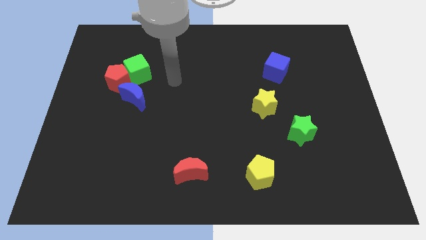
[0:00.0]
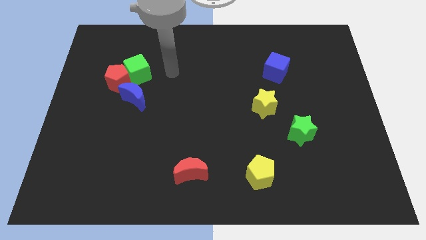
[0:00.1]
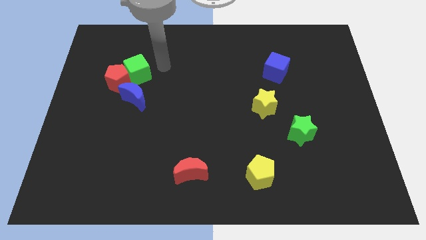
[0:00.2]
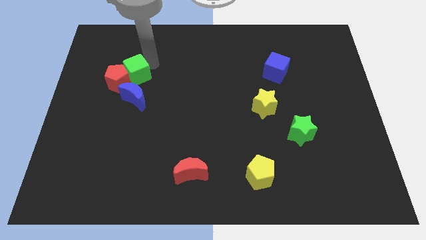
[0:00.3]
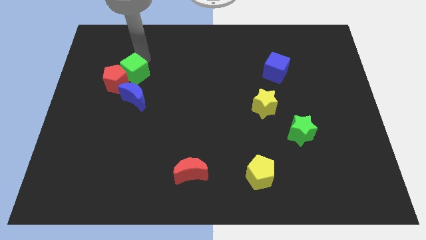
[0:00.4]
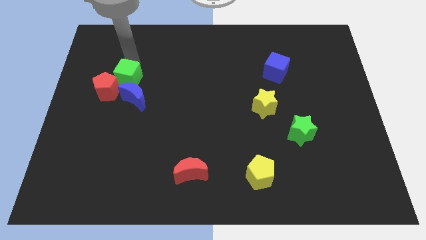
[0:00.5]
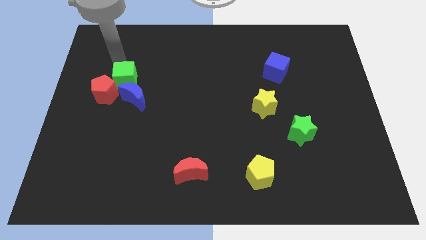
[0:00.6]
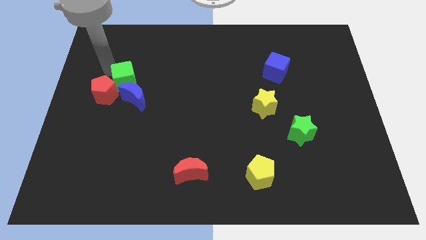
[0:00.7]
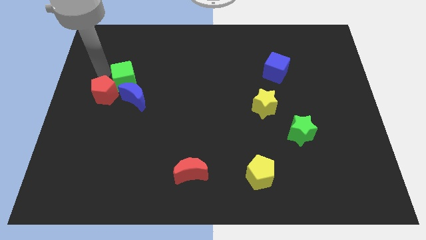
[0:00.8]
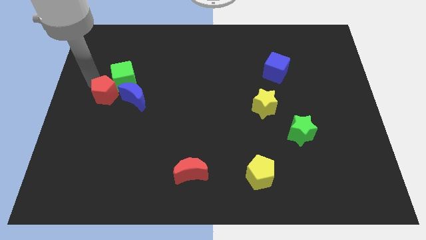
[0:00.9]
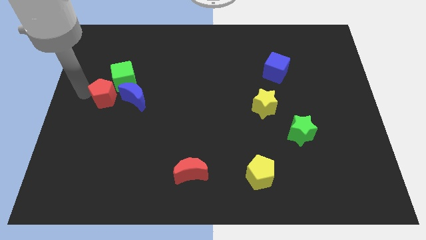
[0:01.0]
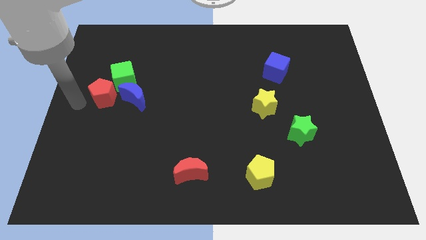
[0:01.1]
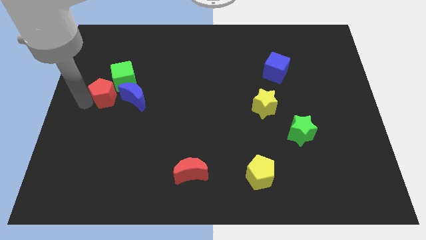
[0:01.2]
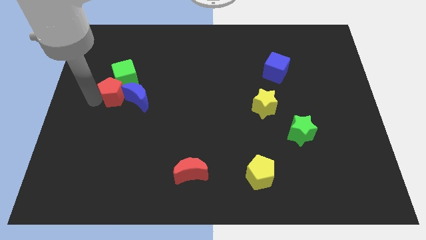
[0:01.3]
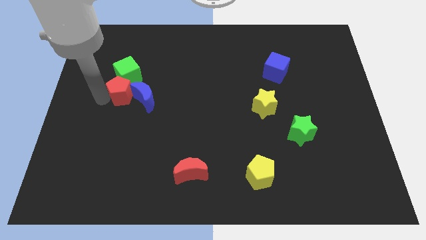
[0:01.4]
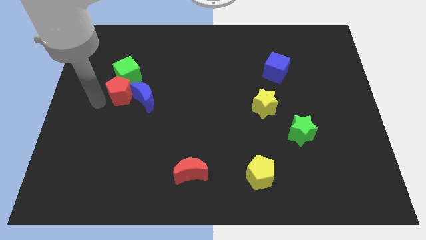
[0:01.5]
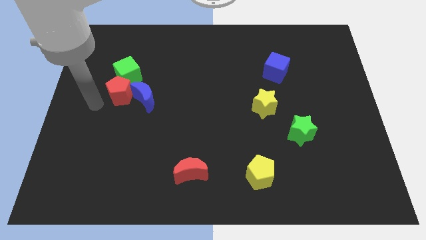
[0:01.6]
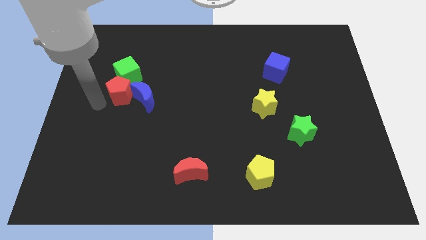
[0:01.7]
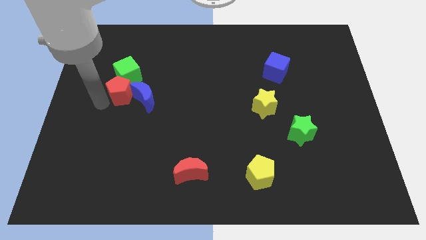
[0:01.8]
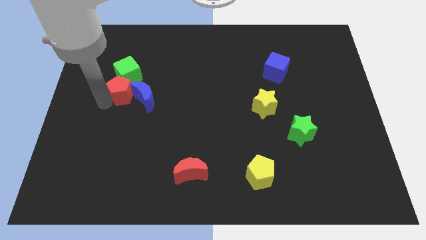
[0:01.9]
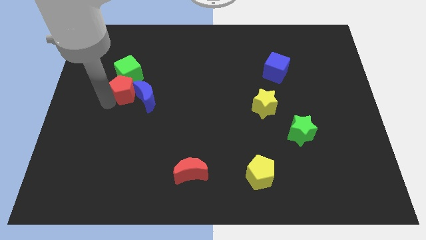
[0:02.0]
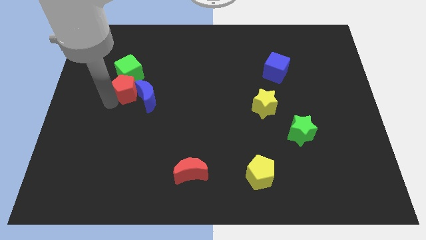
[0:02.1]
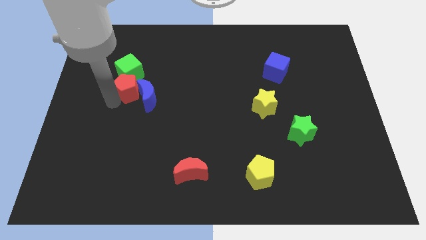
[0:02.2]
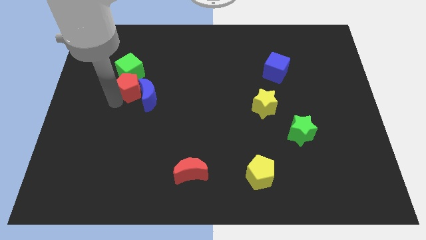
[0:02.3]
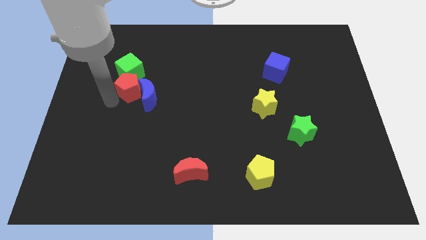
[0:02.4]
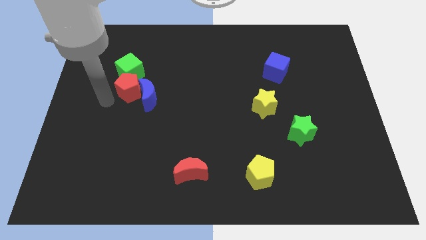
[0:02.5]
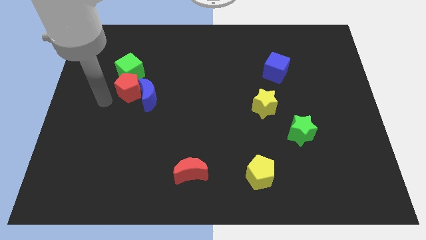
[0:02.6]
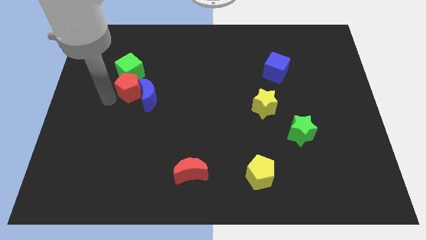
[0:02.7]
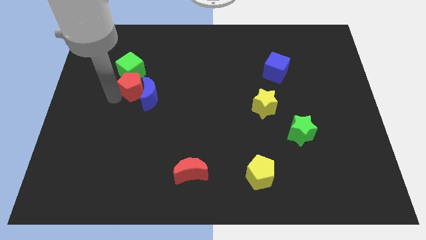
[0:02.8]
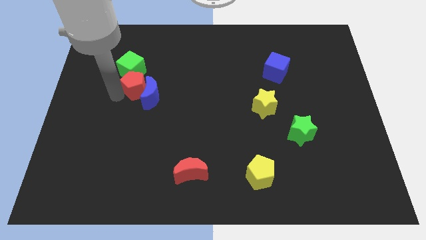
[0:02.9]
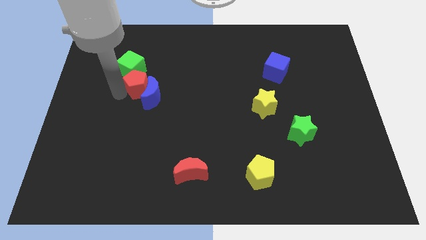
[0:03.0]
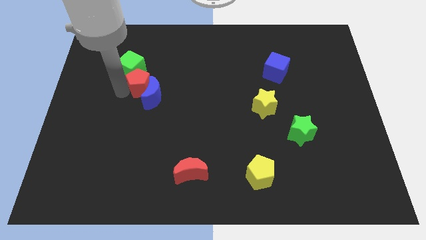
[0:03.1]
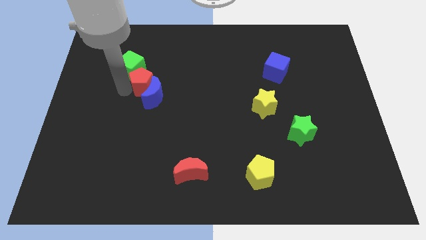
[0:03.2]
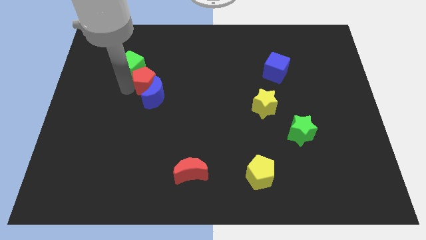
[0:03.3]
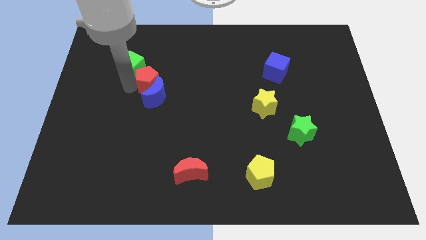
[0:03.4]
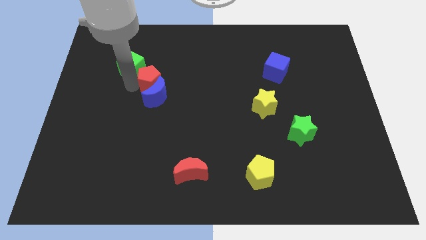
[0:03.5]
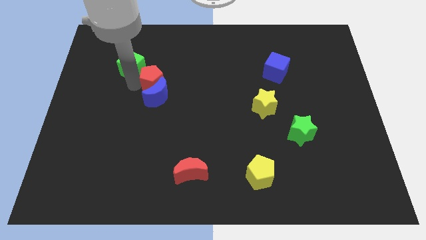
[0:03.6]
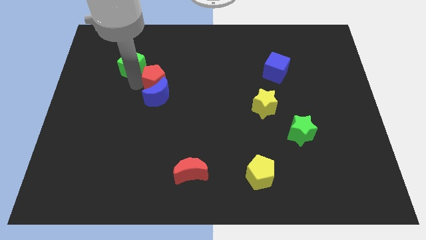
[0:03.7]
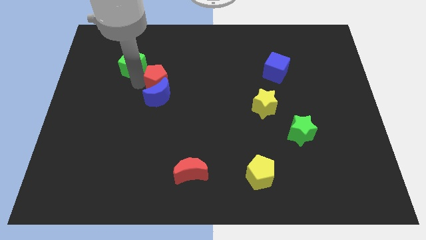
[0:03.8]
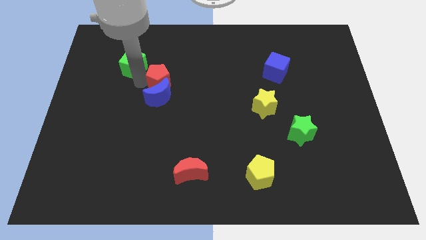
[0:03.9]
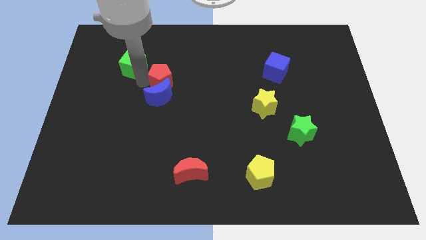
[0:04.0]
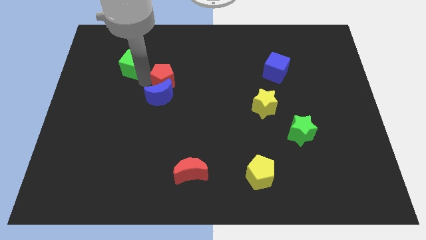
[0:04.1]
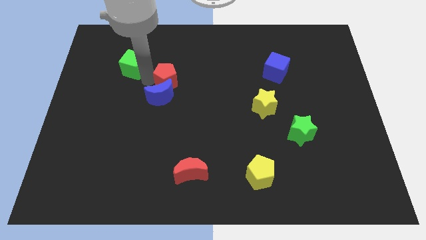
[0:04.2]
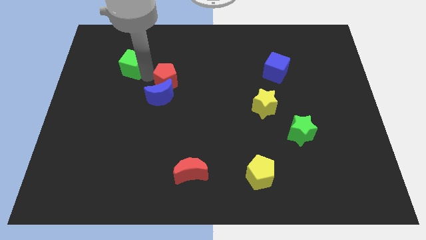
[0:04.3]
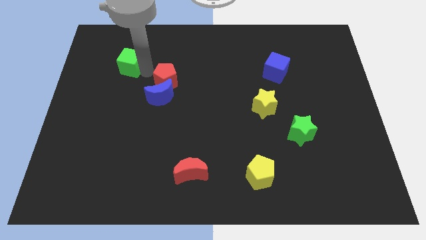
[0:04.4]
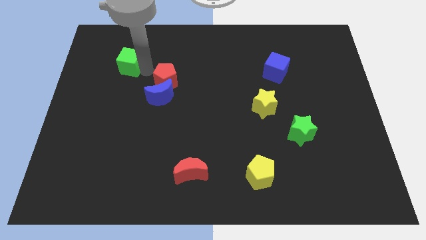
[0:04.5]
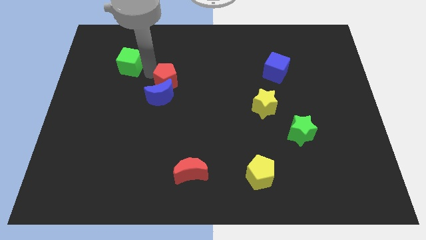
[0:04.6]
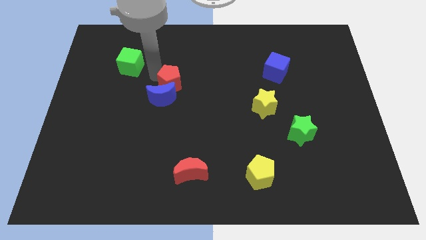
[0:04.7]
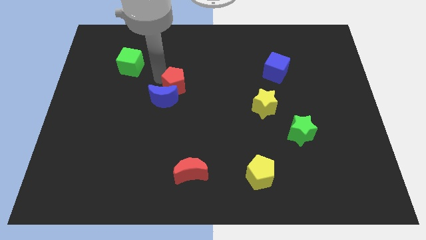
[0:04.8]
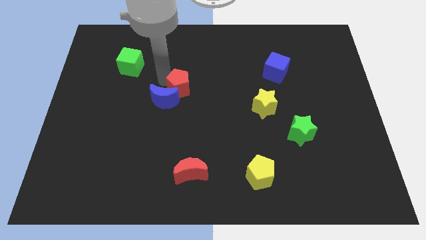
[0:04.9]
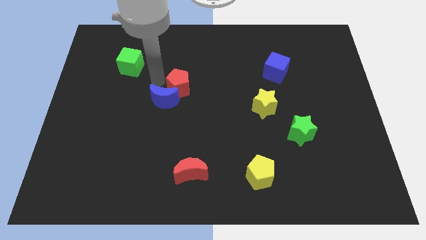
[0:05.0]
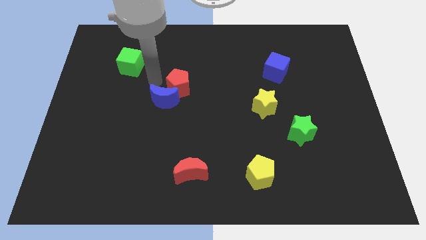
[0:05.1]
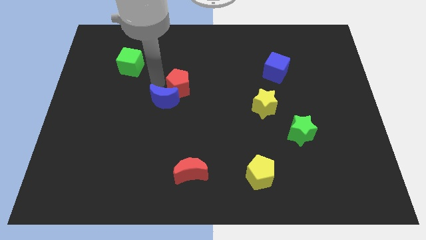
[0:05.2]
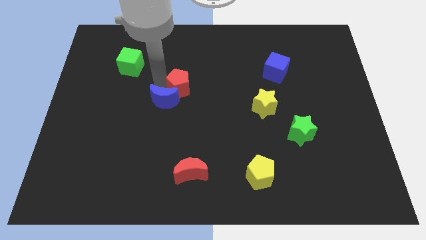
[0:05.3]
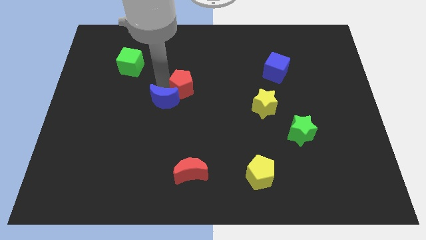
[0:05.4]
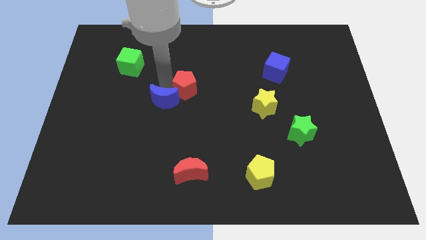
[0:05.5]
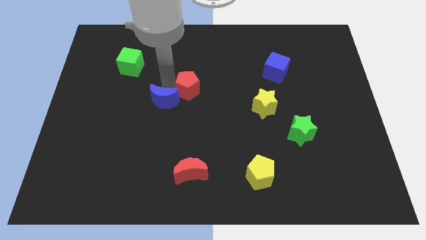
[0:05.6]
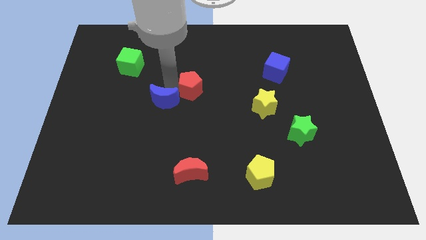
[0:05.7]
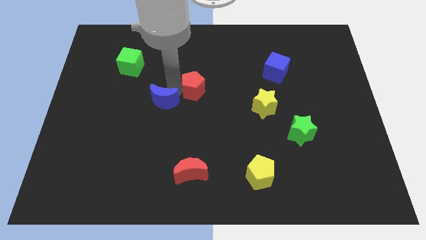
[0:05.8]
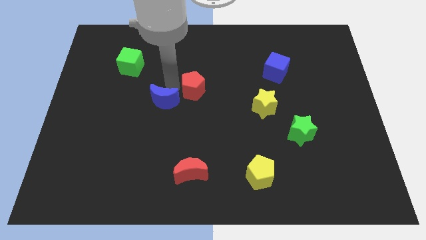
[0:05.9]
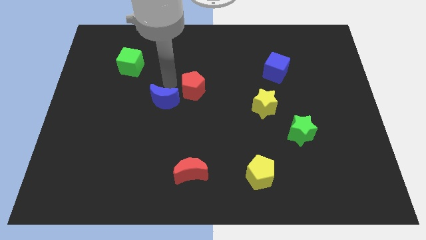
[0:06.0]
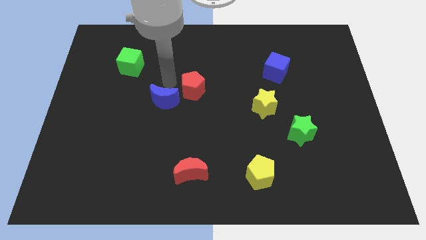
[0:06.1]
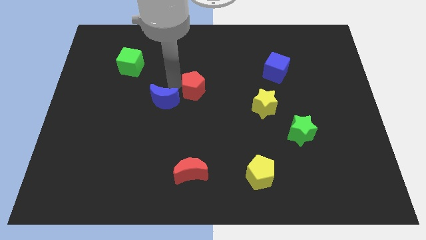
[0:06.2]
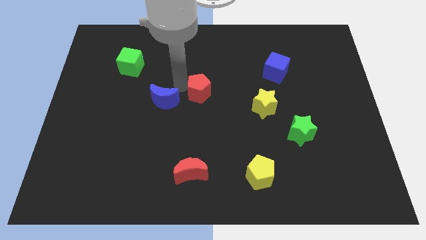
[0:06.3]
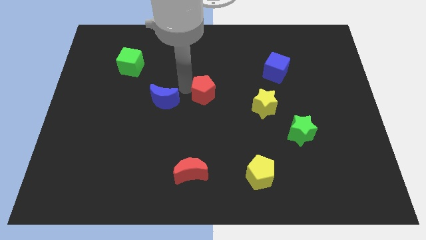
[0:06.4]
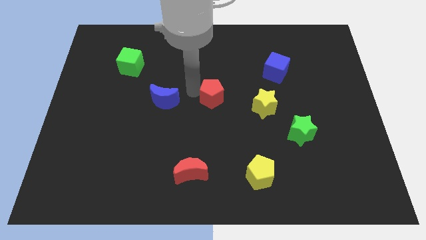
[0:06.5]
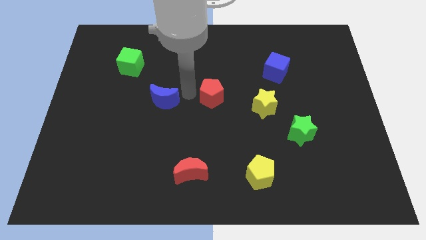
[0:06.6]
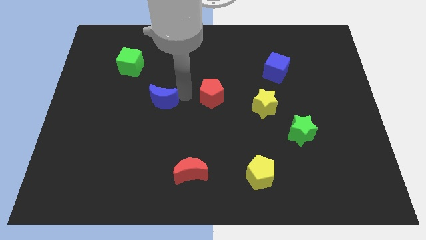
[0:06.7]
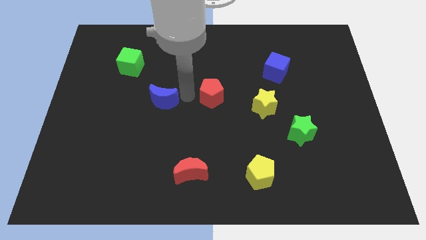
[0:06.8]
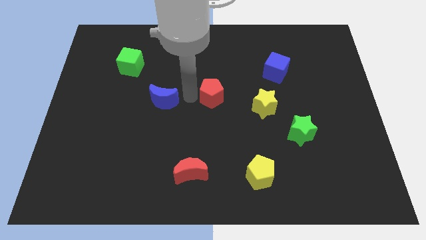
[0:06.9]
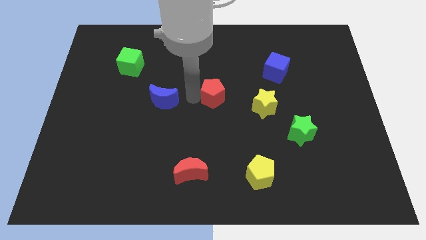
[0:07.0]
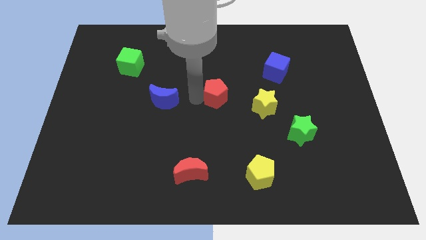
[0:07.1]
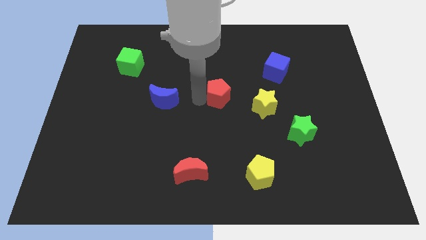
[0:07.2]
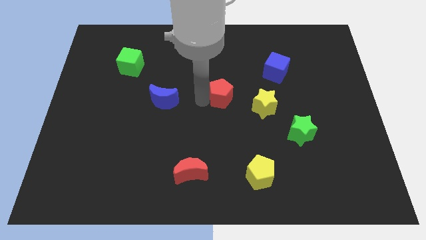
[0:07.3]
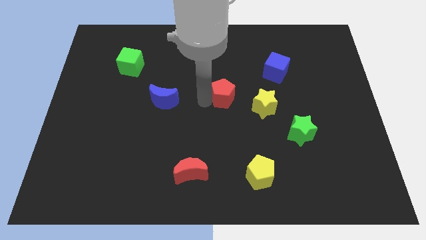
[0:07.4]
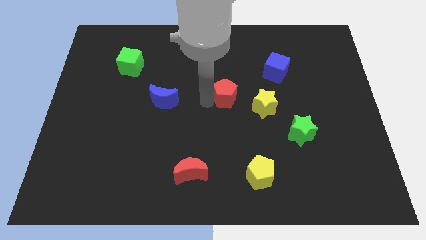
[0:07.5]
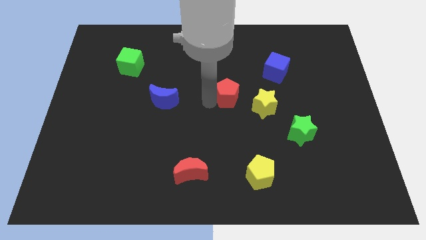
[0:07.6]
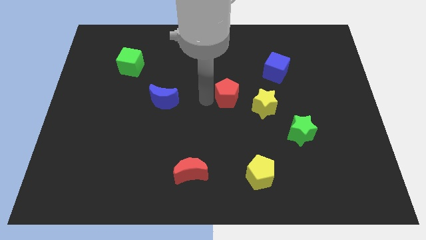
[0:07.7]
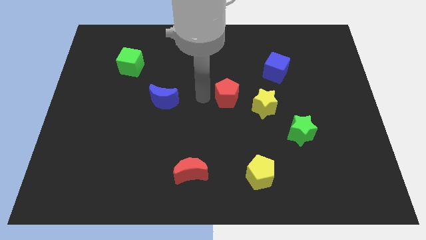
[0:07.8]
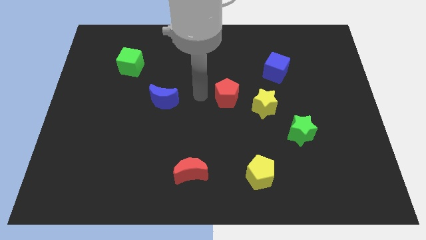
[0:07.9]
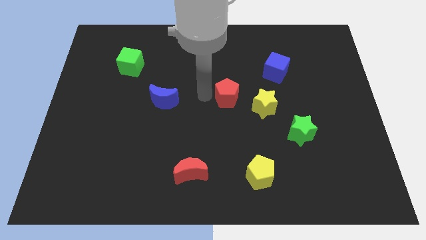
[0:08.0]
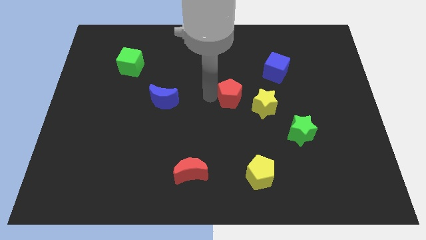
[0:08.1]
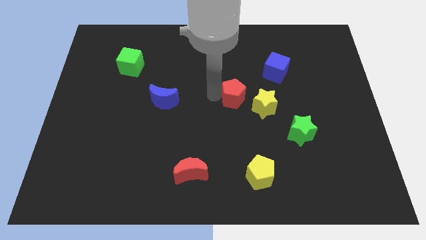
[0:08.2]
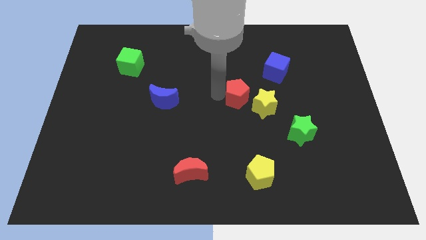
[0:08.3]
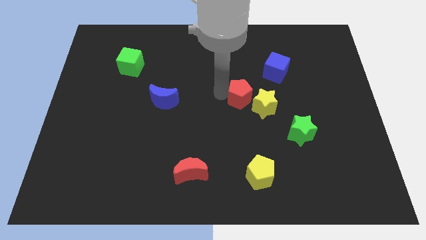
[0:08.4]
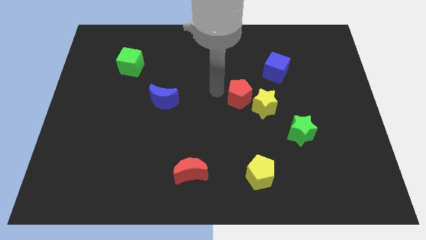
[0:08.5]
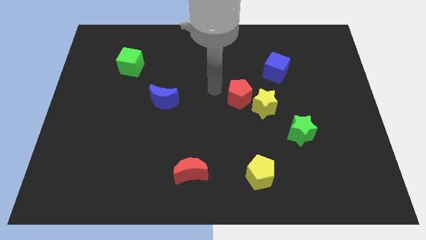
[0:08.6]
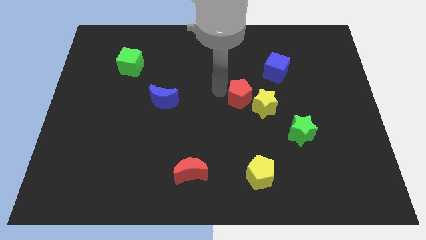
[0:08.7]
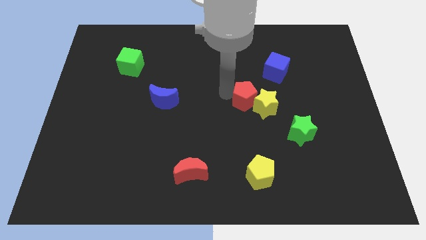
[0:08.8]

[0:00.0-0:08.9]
push the red pentagon to the yellow star
